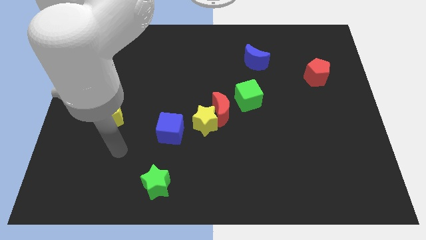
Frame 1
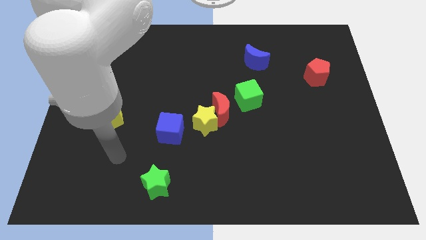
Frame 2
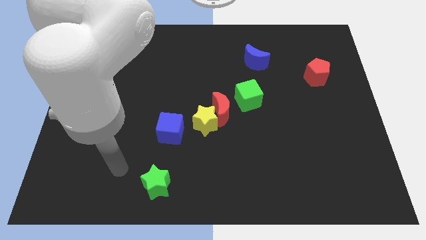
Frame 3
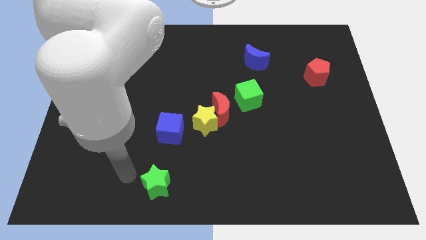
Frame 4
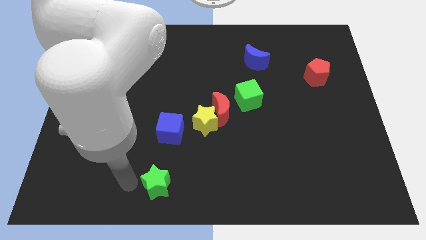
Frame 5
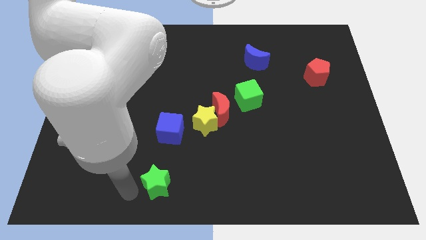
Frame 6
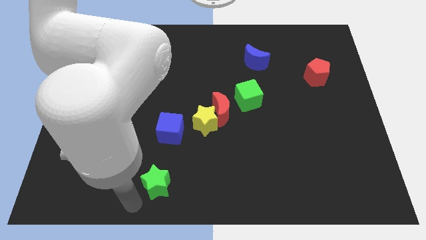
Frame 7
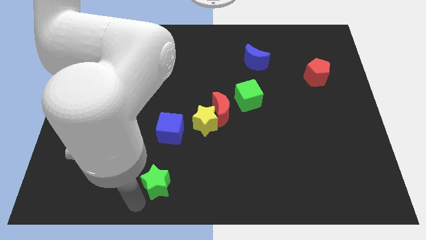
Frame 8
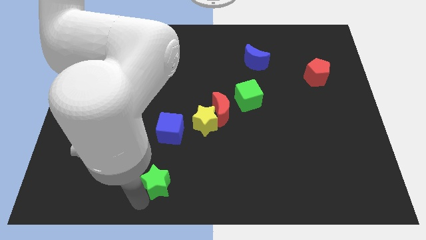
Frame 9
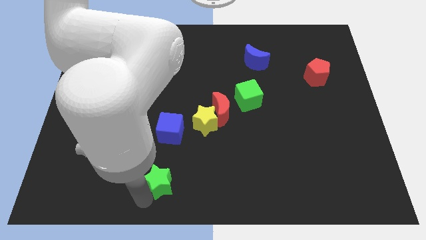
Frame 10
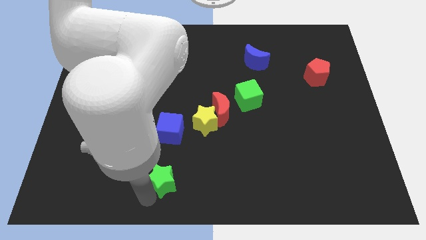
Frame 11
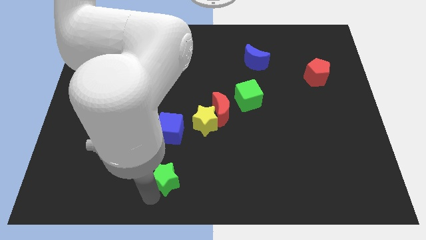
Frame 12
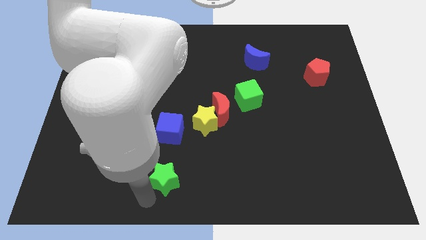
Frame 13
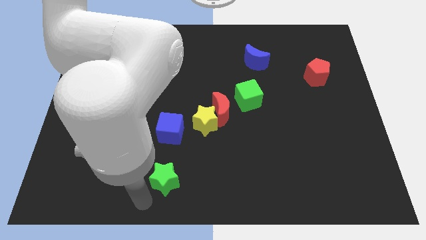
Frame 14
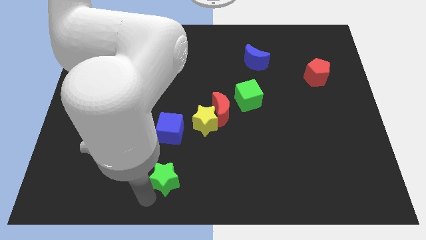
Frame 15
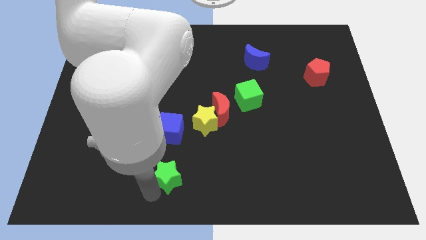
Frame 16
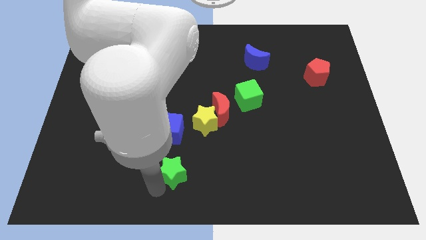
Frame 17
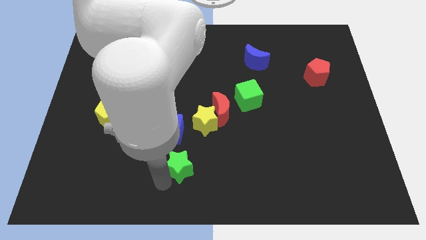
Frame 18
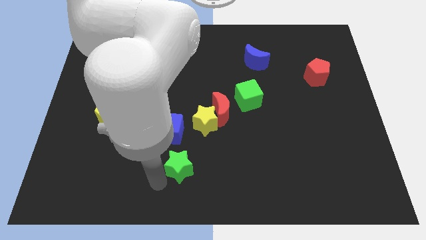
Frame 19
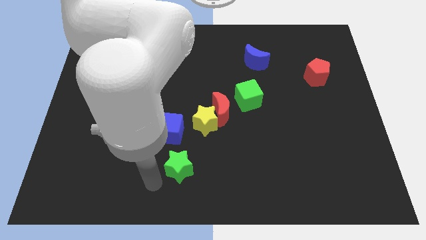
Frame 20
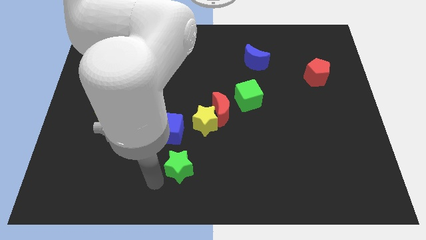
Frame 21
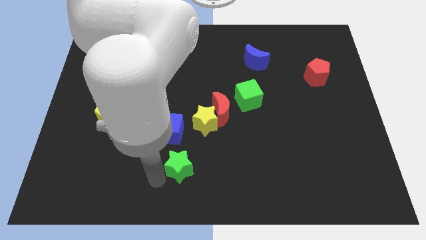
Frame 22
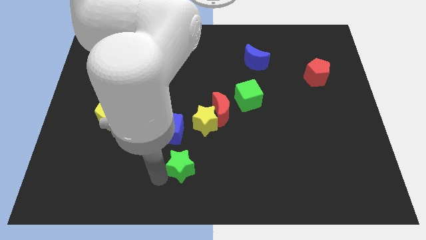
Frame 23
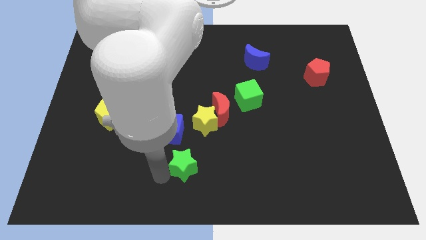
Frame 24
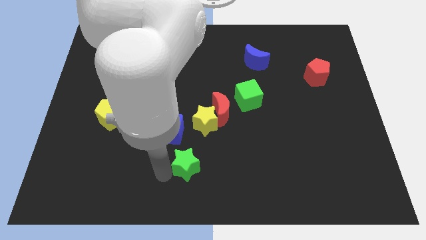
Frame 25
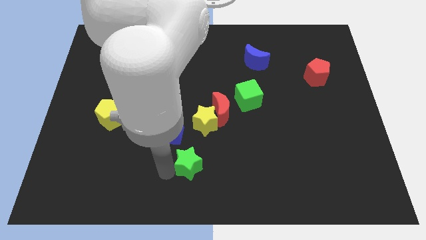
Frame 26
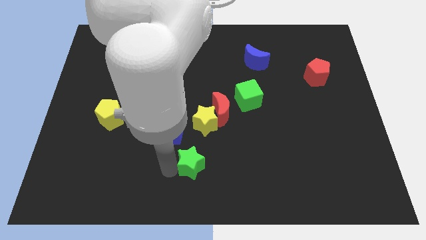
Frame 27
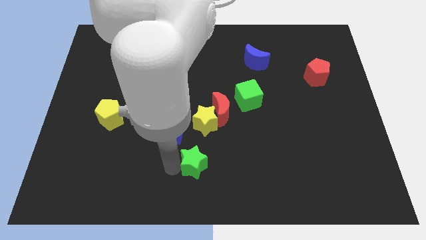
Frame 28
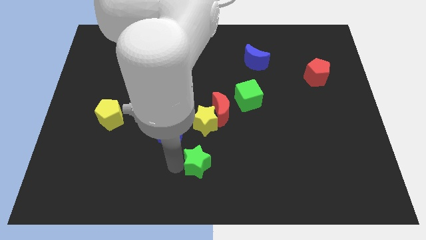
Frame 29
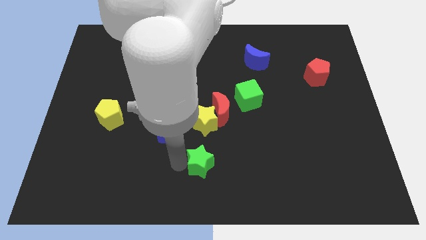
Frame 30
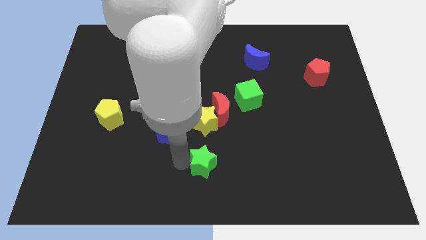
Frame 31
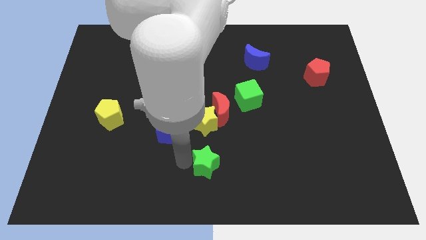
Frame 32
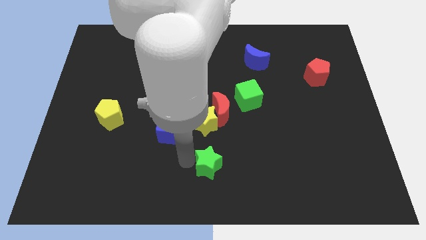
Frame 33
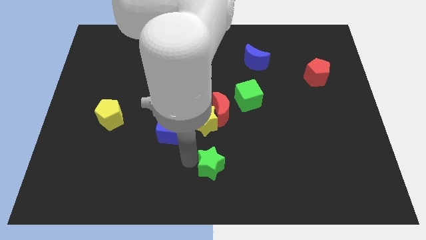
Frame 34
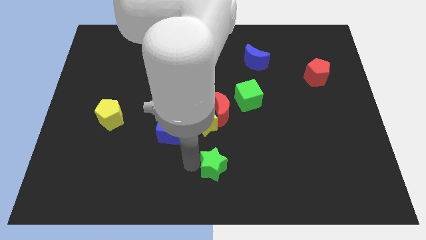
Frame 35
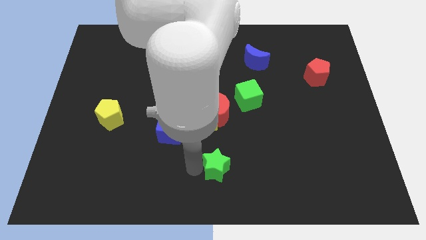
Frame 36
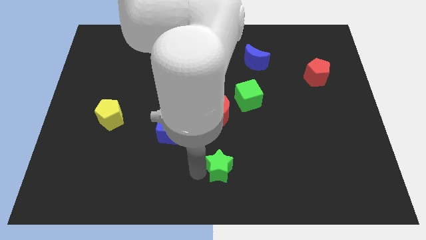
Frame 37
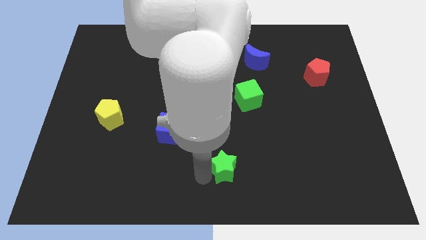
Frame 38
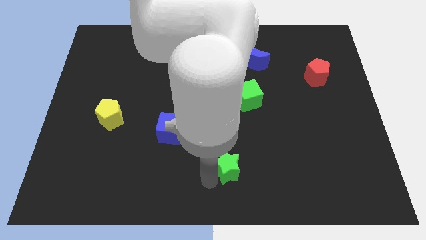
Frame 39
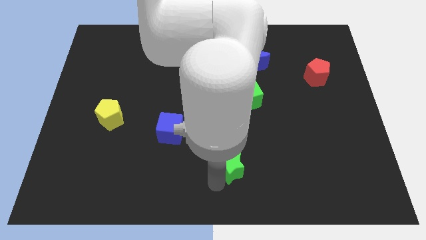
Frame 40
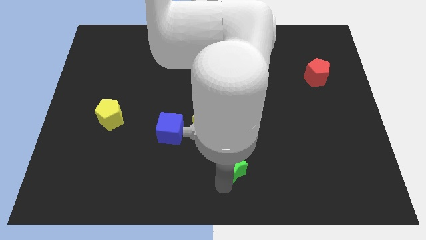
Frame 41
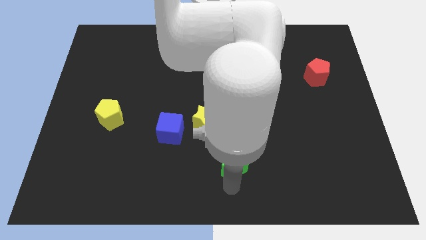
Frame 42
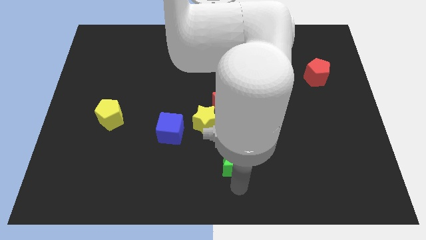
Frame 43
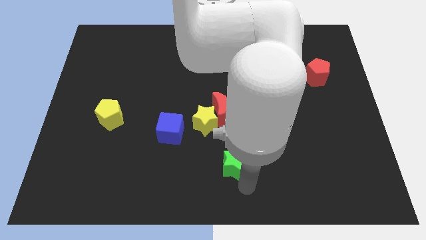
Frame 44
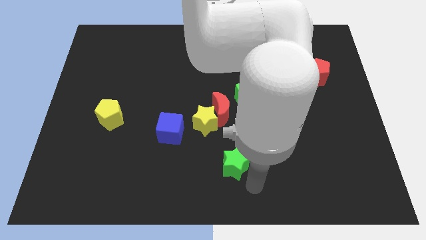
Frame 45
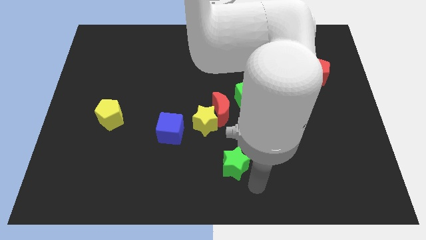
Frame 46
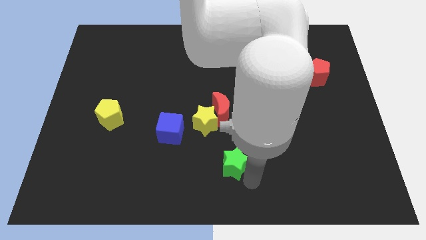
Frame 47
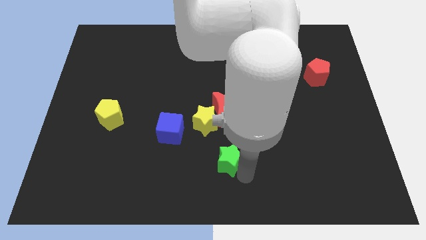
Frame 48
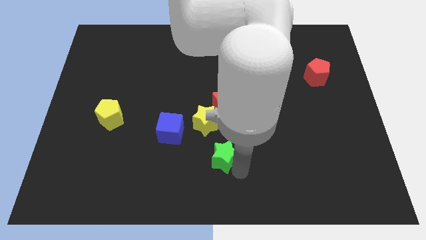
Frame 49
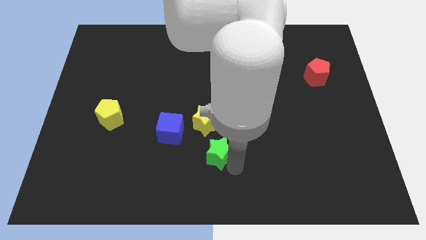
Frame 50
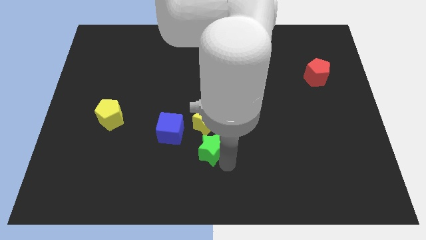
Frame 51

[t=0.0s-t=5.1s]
put the green star right of the blue cube

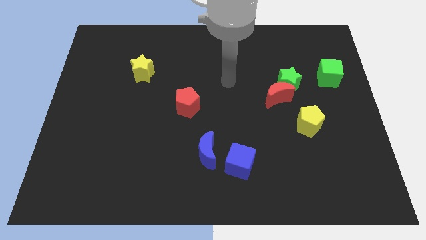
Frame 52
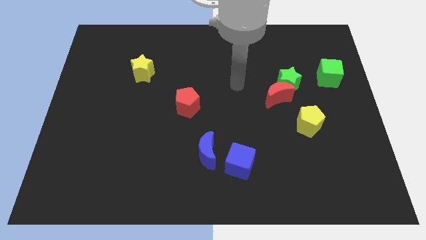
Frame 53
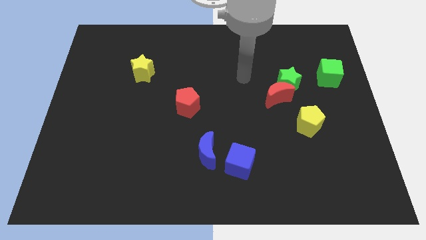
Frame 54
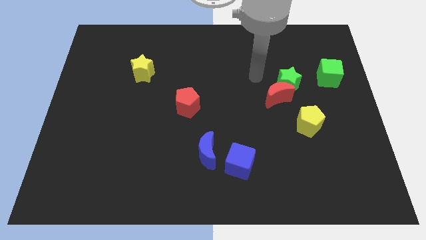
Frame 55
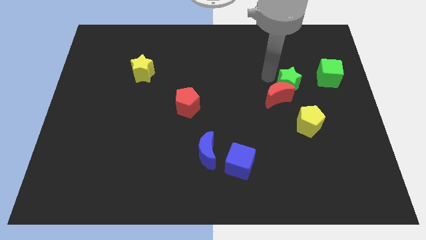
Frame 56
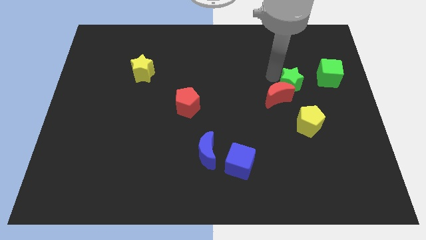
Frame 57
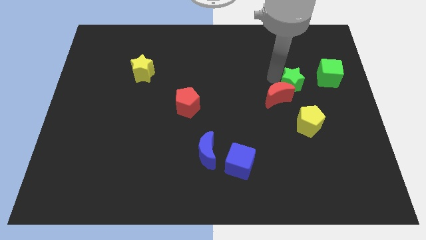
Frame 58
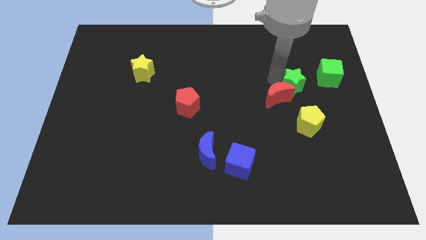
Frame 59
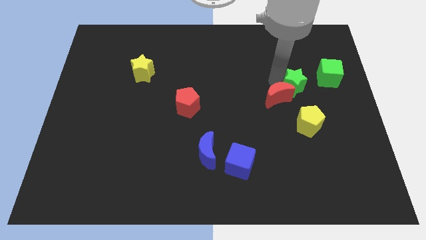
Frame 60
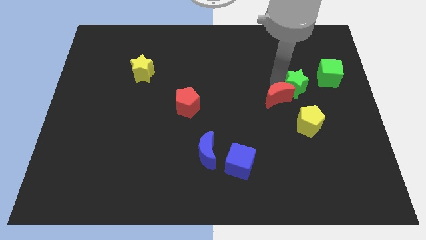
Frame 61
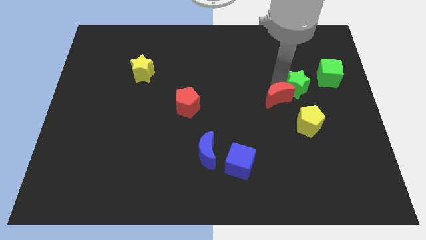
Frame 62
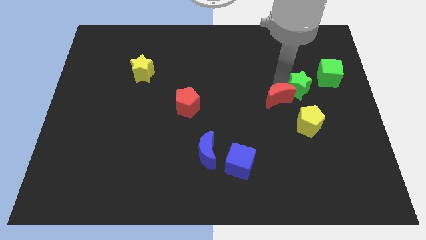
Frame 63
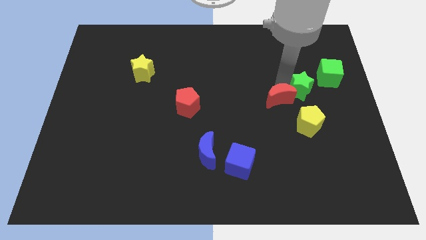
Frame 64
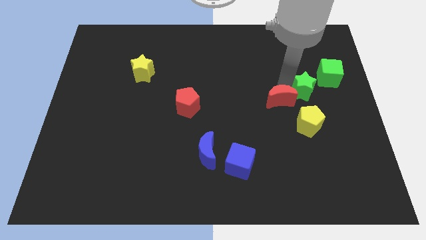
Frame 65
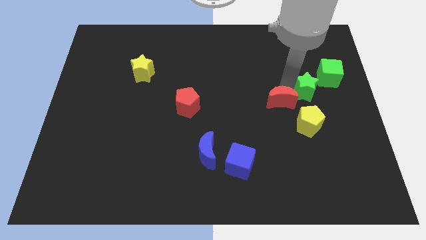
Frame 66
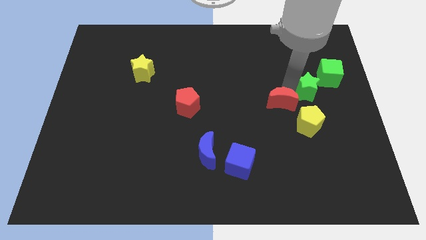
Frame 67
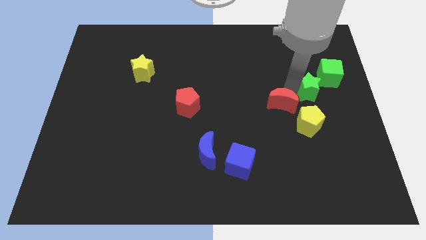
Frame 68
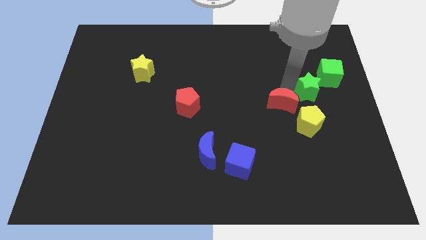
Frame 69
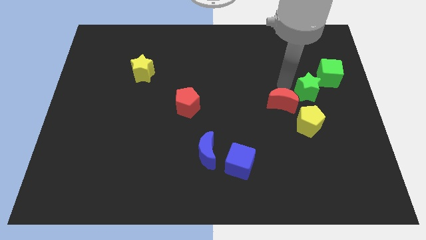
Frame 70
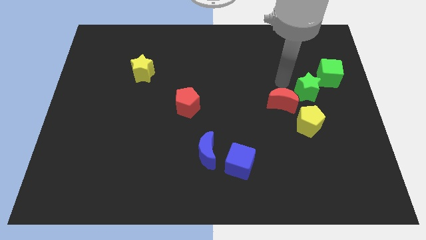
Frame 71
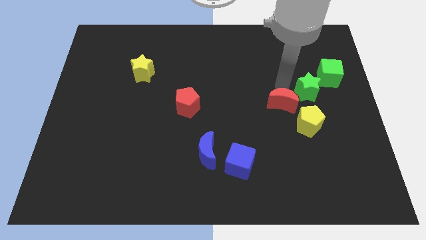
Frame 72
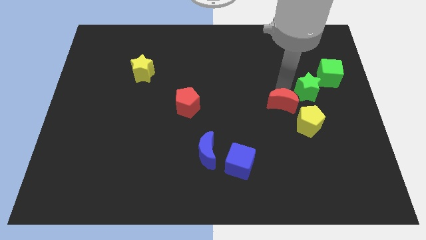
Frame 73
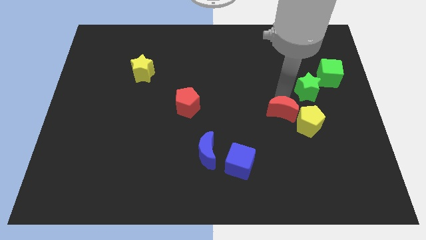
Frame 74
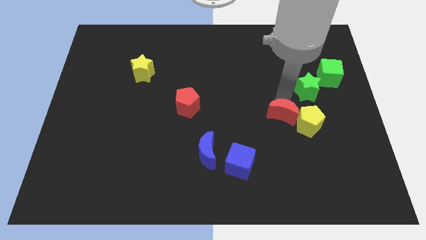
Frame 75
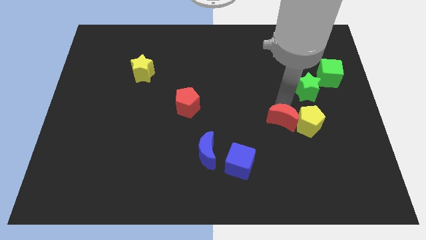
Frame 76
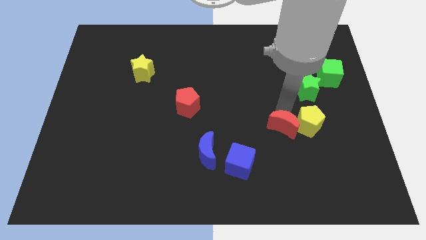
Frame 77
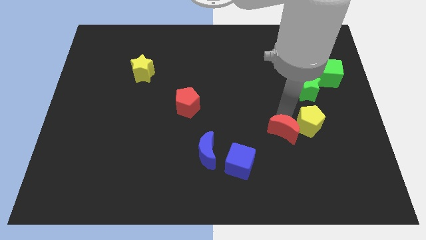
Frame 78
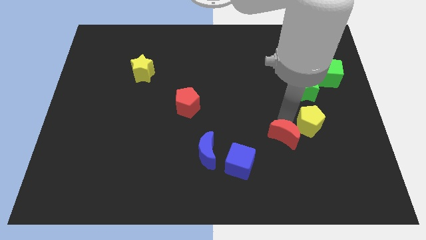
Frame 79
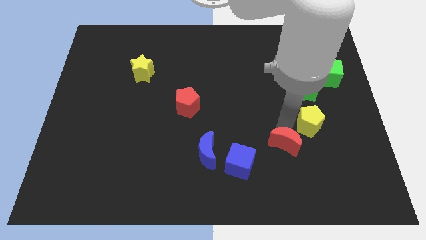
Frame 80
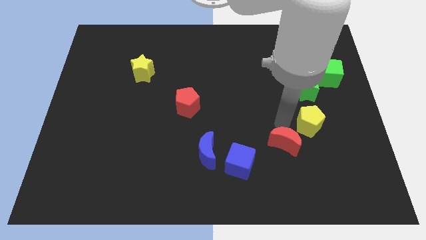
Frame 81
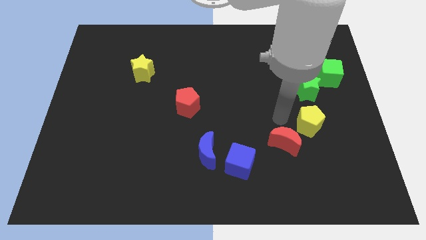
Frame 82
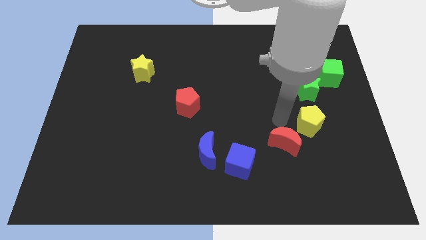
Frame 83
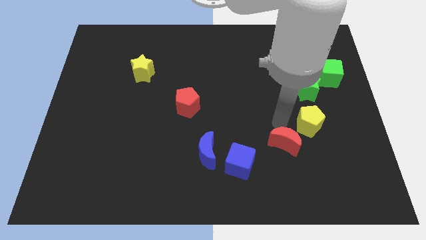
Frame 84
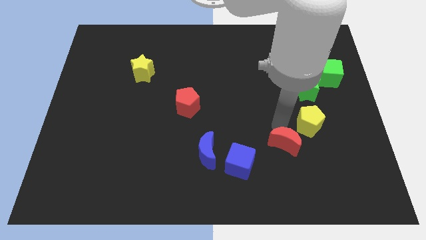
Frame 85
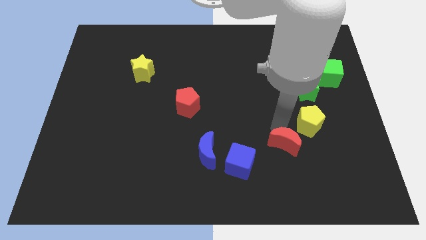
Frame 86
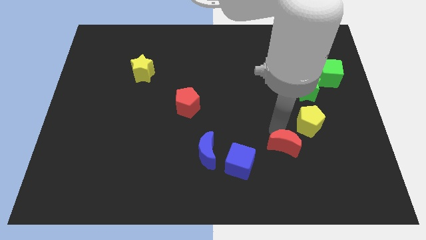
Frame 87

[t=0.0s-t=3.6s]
put the red moon to the right of the blue cube
